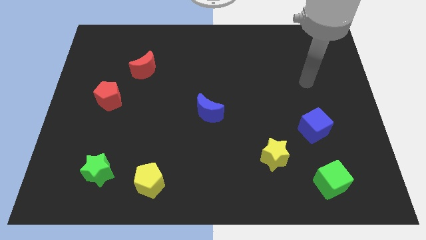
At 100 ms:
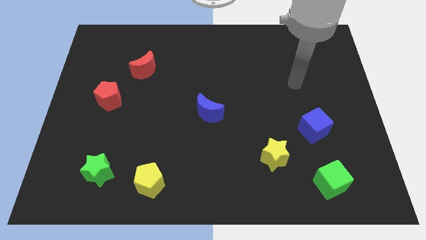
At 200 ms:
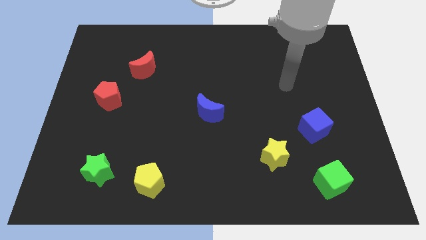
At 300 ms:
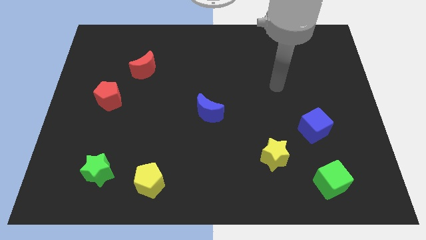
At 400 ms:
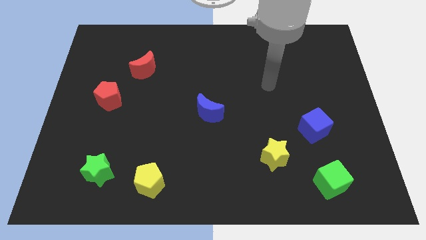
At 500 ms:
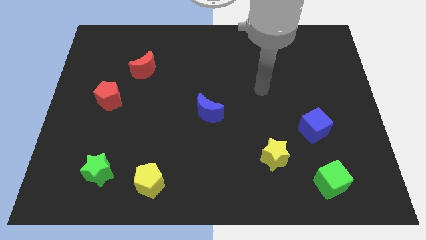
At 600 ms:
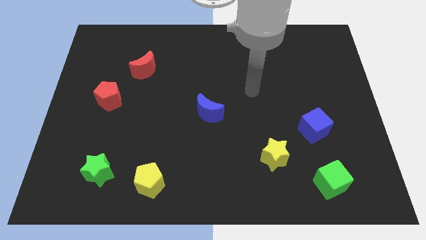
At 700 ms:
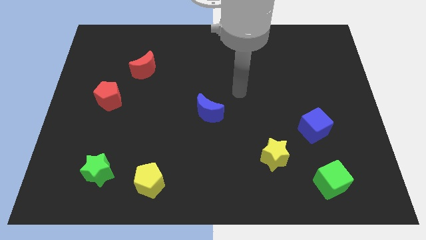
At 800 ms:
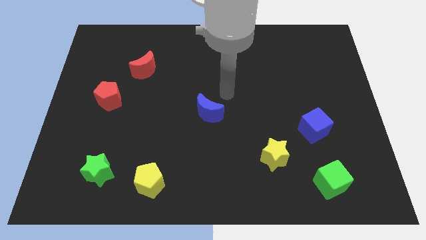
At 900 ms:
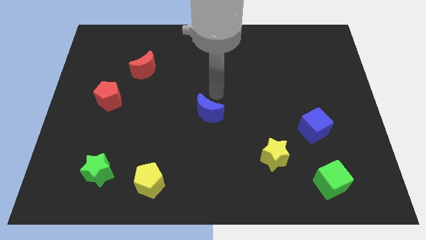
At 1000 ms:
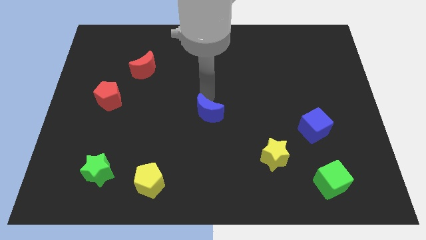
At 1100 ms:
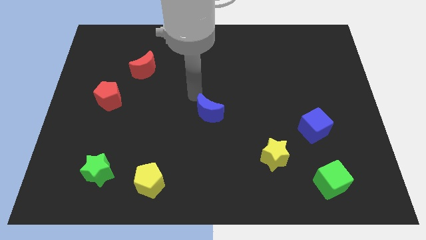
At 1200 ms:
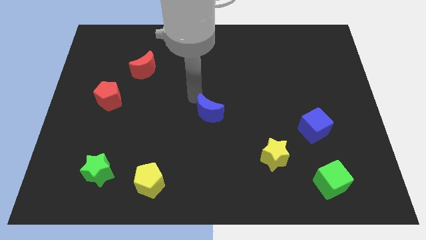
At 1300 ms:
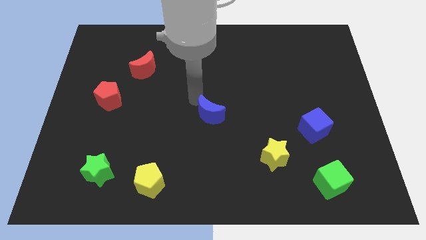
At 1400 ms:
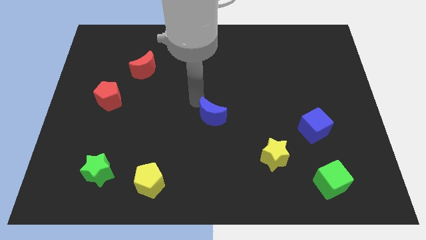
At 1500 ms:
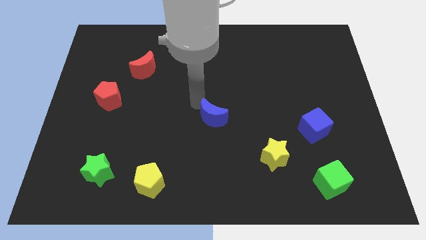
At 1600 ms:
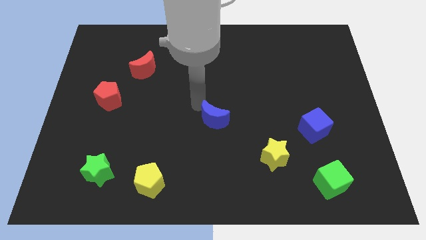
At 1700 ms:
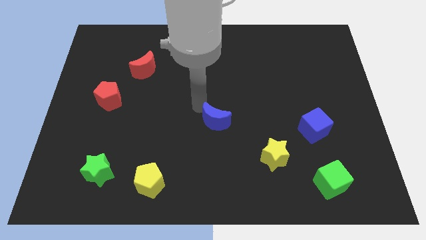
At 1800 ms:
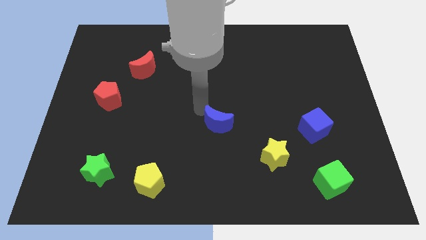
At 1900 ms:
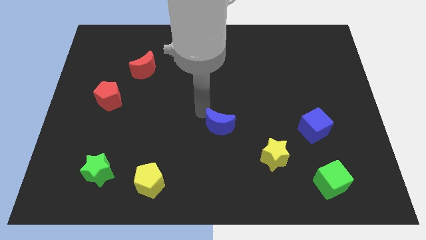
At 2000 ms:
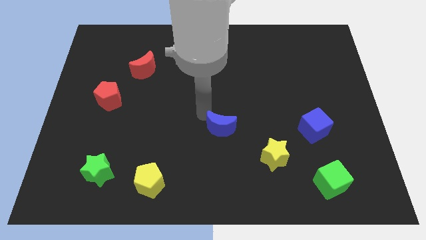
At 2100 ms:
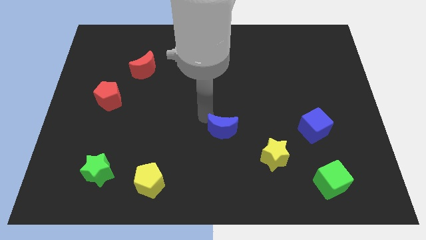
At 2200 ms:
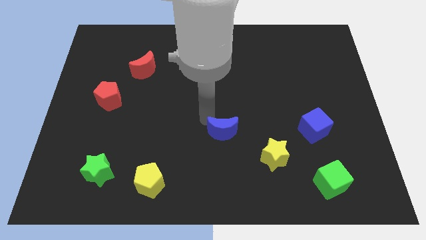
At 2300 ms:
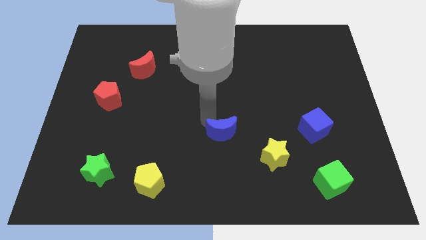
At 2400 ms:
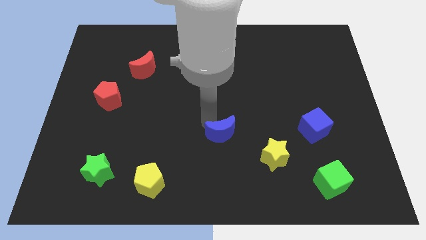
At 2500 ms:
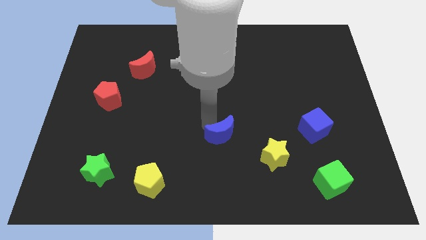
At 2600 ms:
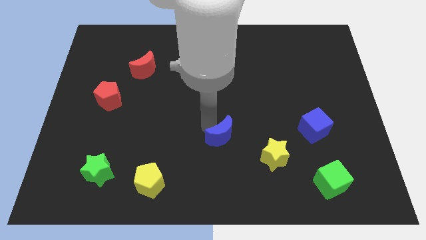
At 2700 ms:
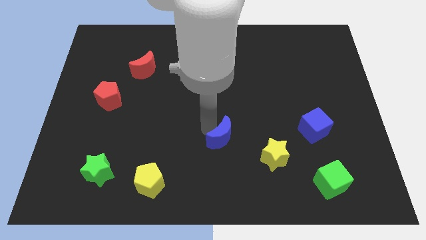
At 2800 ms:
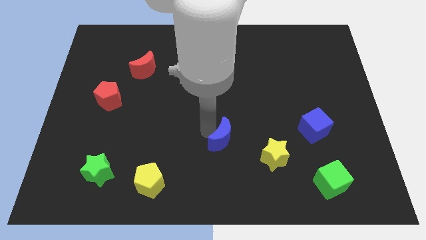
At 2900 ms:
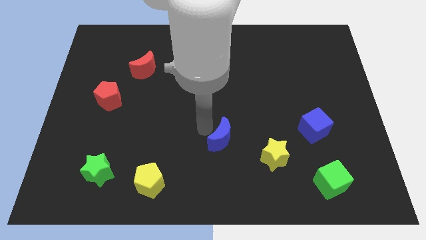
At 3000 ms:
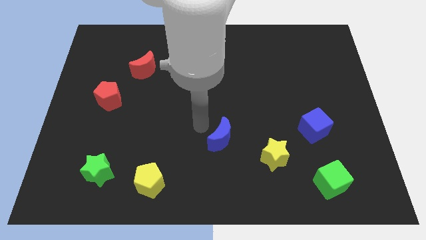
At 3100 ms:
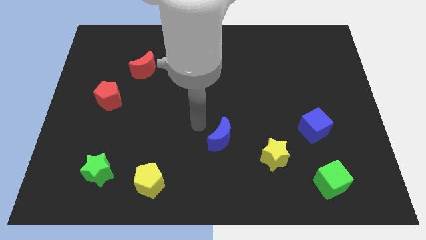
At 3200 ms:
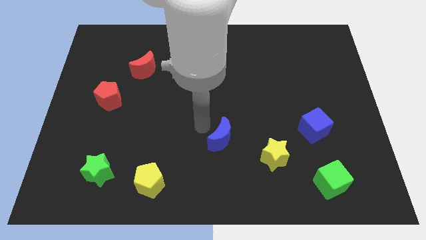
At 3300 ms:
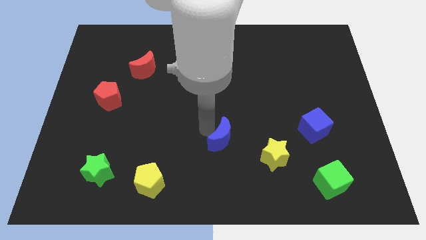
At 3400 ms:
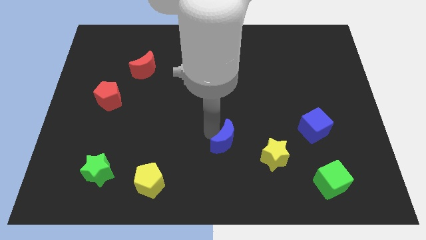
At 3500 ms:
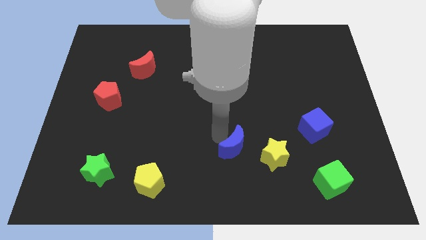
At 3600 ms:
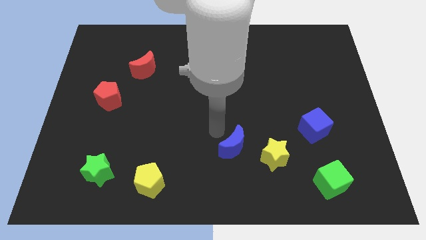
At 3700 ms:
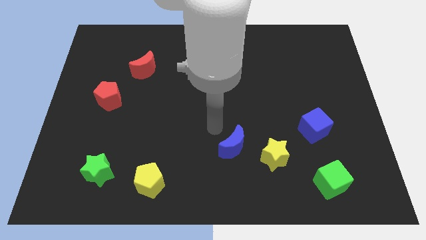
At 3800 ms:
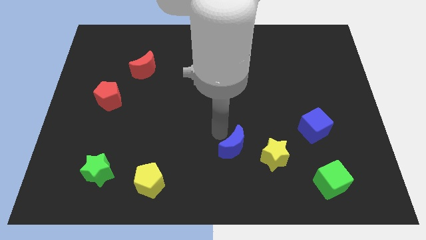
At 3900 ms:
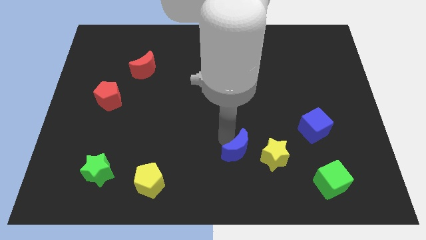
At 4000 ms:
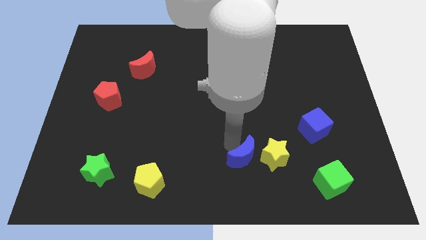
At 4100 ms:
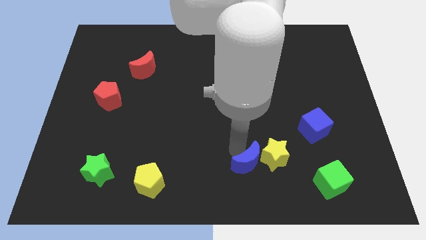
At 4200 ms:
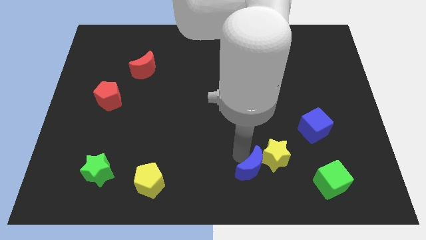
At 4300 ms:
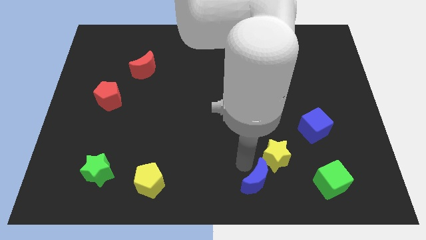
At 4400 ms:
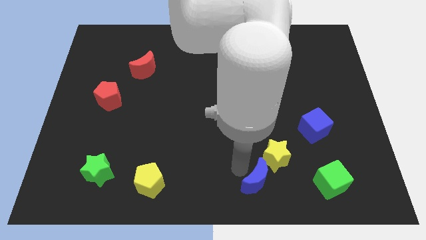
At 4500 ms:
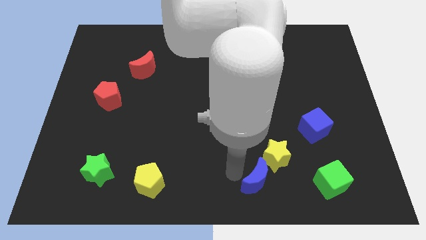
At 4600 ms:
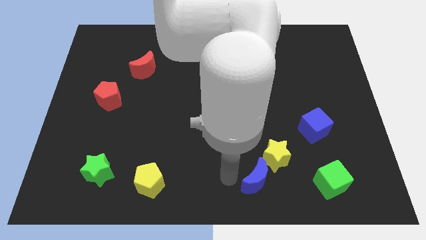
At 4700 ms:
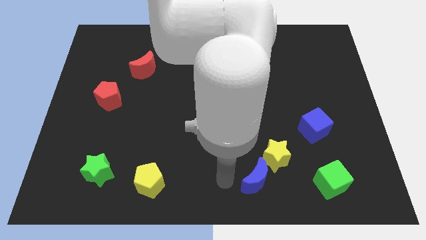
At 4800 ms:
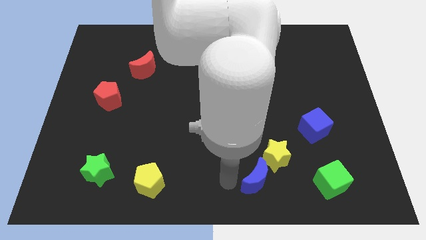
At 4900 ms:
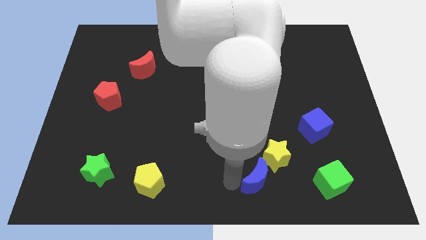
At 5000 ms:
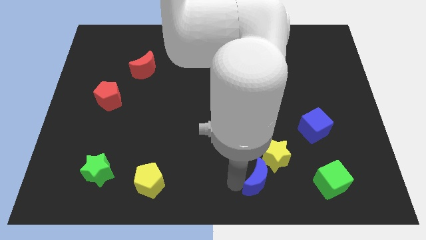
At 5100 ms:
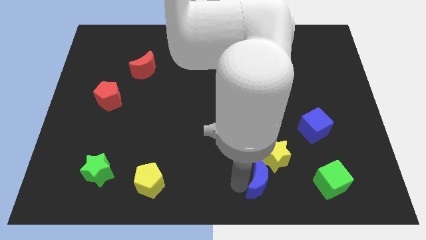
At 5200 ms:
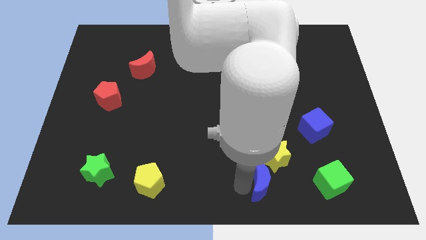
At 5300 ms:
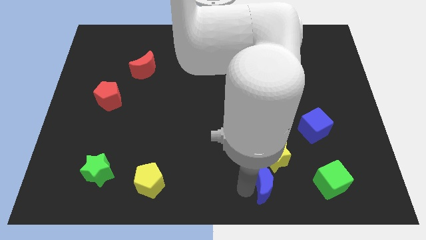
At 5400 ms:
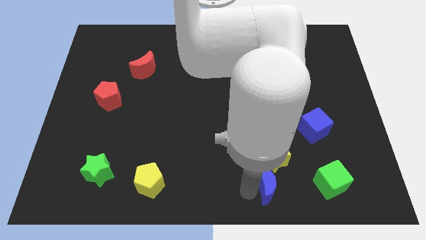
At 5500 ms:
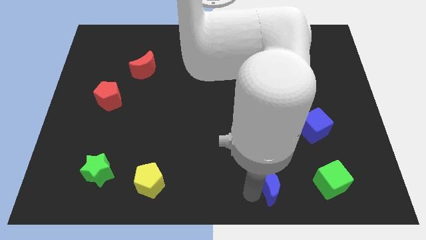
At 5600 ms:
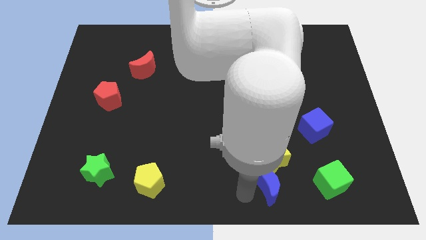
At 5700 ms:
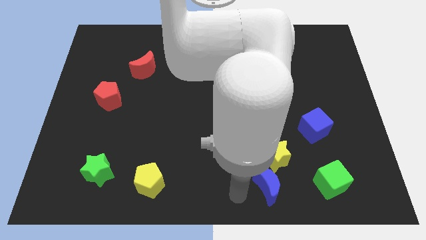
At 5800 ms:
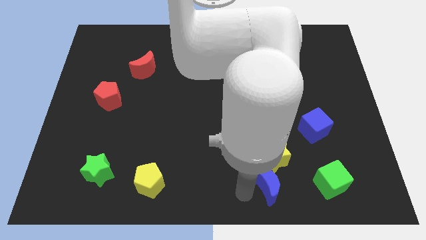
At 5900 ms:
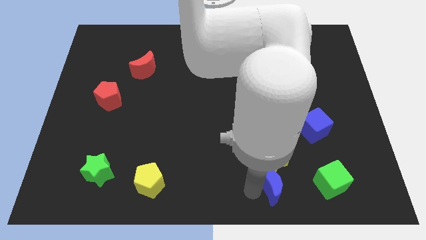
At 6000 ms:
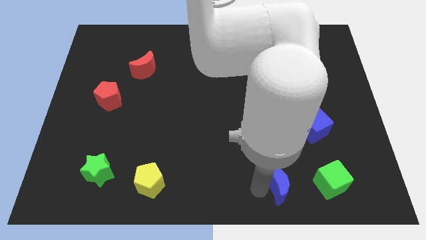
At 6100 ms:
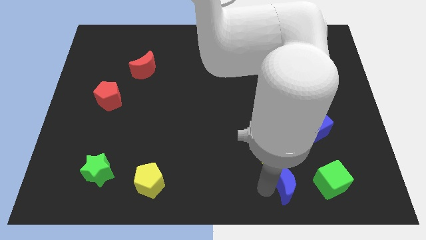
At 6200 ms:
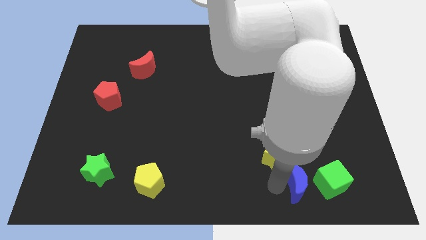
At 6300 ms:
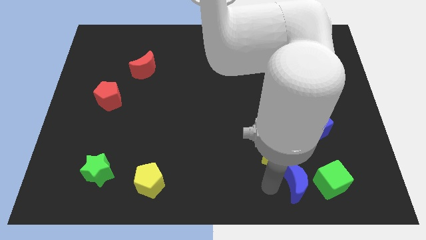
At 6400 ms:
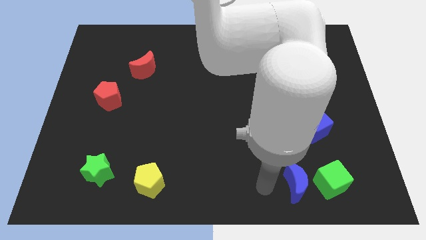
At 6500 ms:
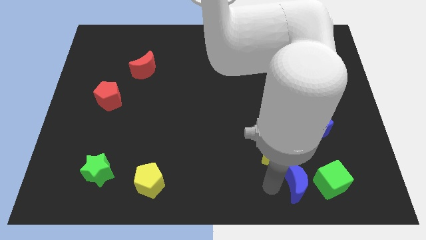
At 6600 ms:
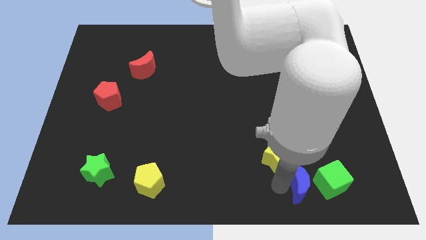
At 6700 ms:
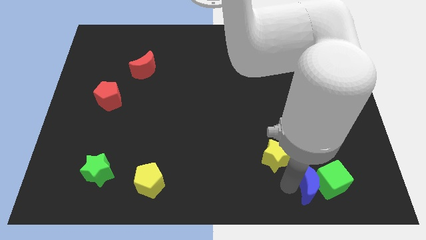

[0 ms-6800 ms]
slide the blue moon close to the green cube

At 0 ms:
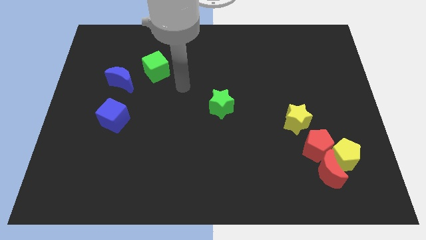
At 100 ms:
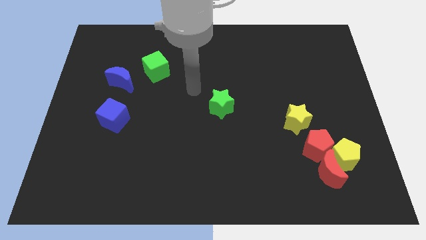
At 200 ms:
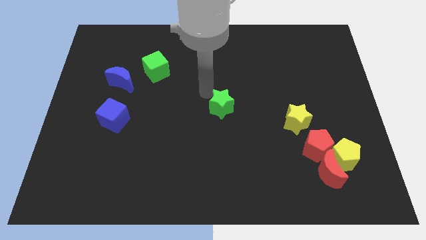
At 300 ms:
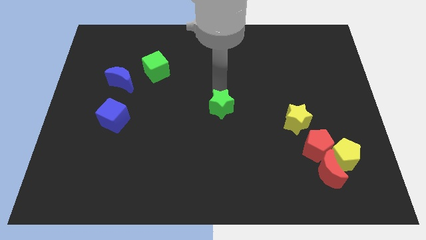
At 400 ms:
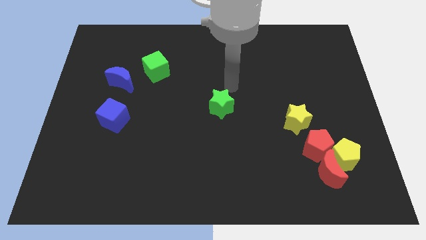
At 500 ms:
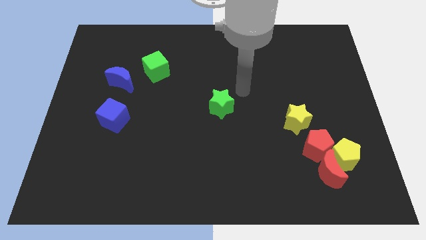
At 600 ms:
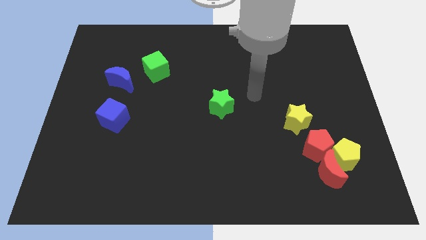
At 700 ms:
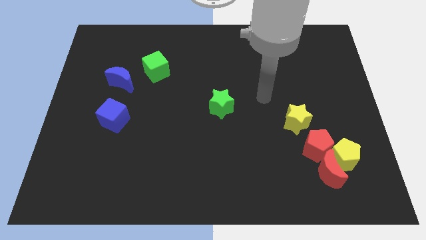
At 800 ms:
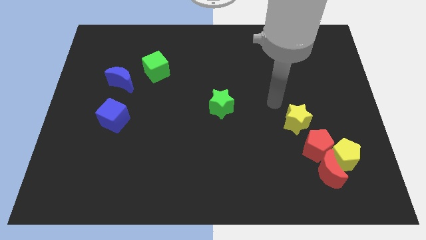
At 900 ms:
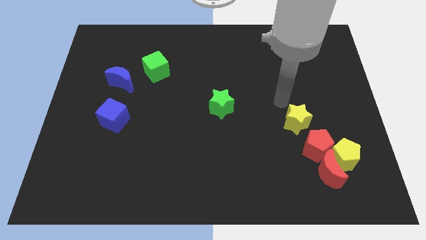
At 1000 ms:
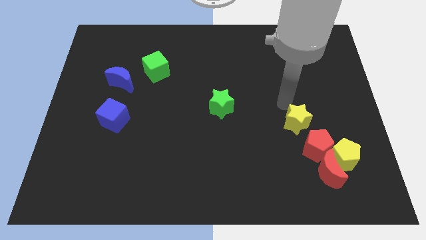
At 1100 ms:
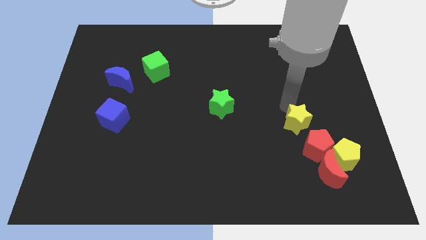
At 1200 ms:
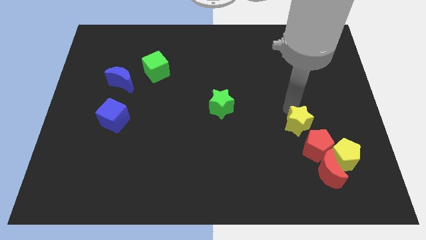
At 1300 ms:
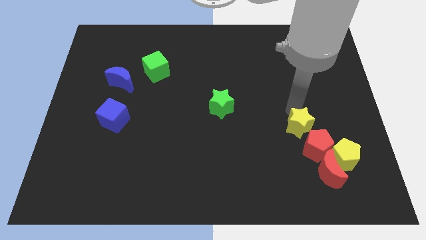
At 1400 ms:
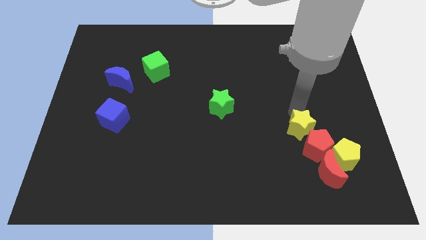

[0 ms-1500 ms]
move the yellow star to the red pentagon
